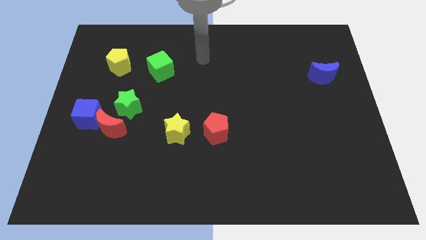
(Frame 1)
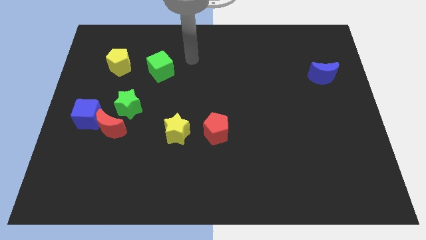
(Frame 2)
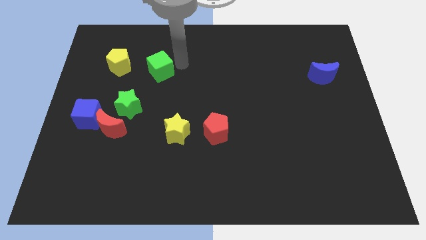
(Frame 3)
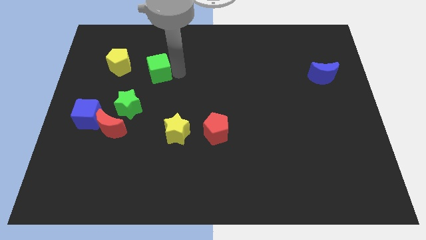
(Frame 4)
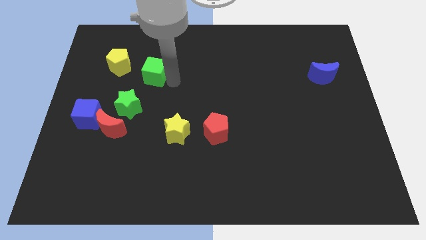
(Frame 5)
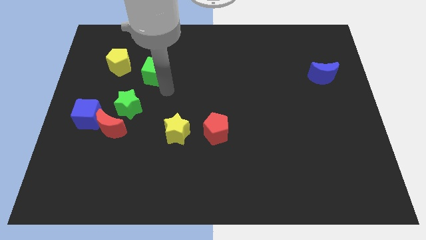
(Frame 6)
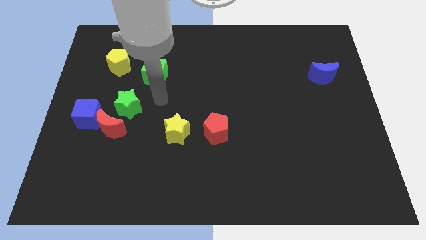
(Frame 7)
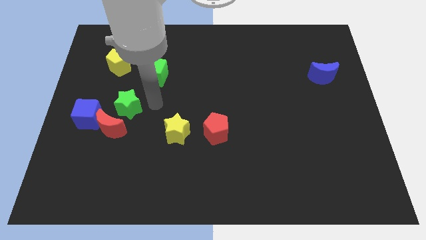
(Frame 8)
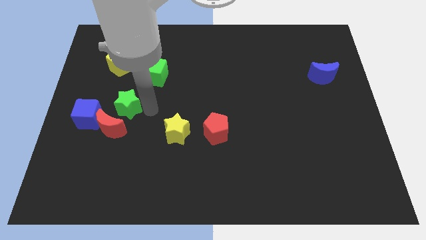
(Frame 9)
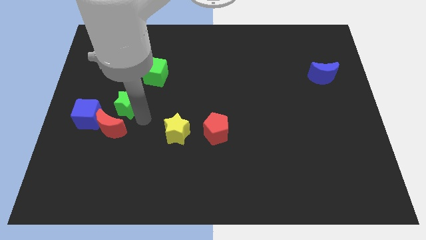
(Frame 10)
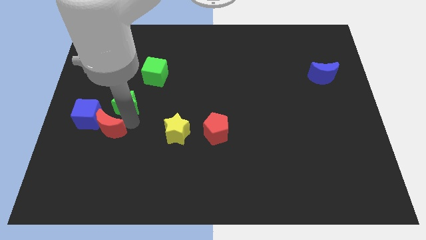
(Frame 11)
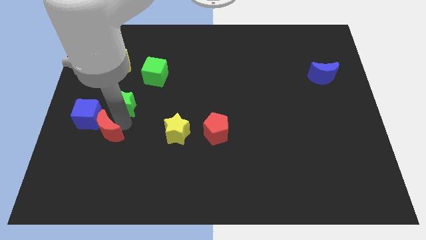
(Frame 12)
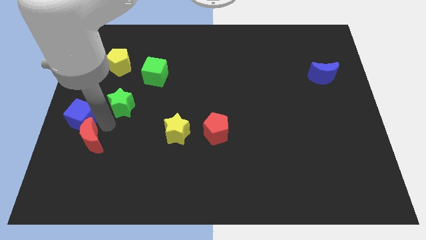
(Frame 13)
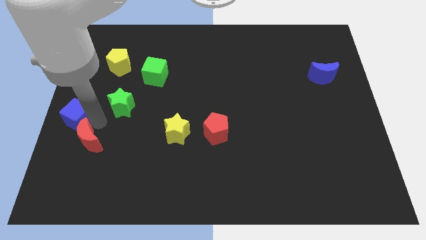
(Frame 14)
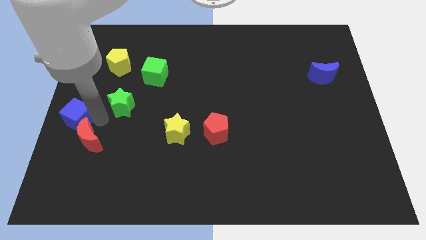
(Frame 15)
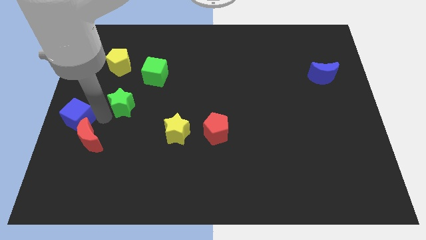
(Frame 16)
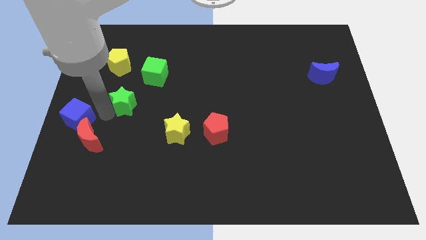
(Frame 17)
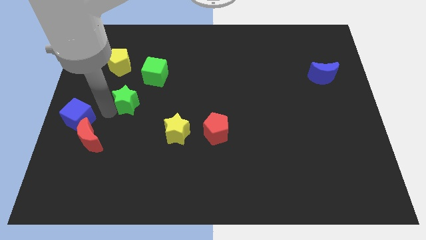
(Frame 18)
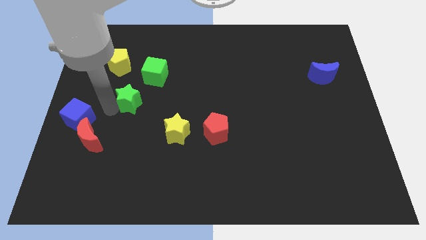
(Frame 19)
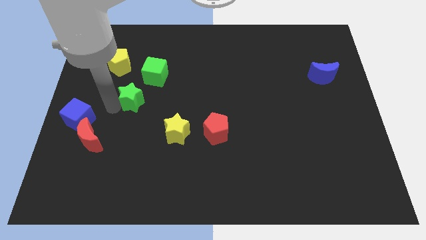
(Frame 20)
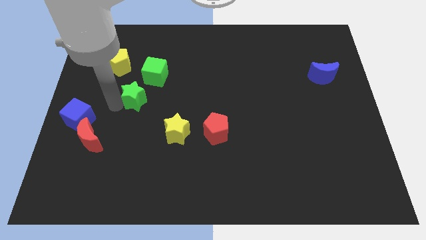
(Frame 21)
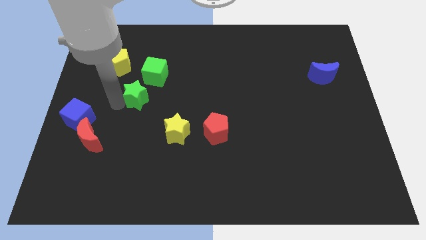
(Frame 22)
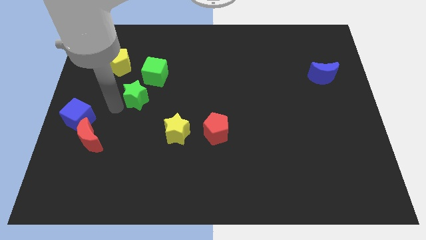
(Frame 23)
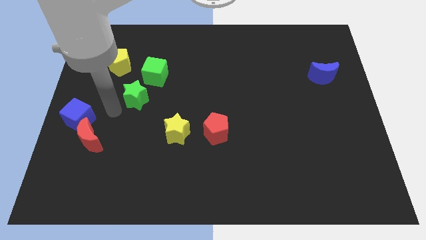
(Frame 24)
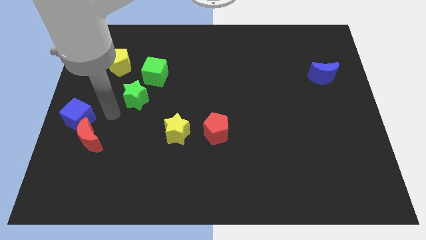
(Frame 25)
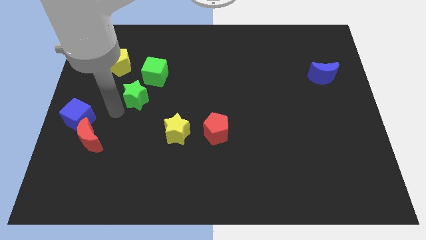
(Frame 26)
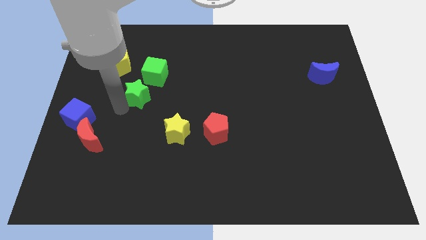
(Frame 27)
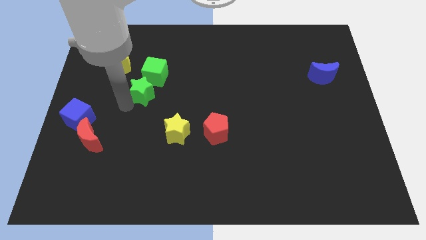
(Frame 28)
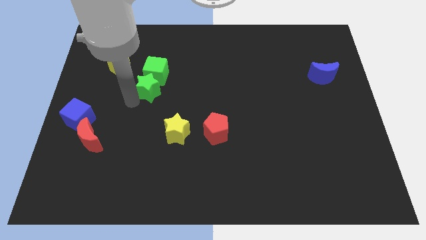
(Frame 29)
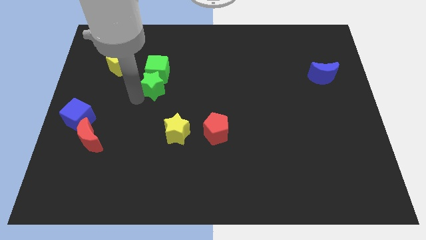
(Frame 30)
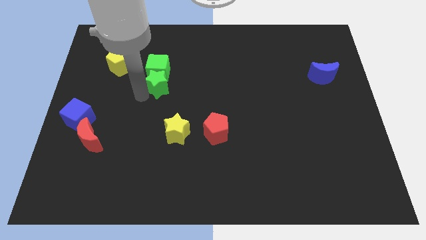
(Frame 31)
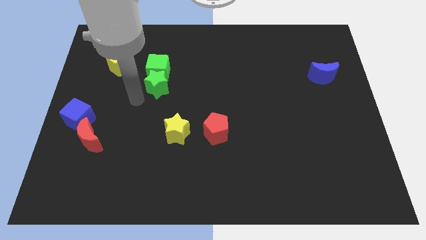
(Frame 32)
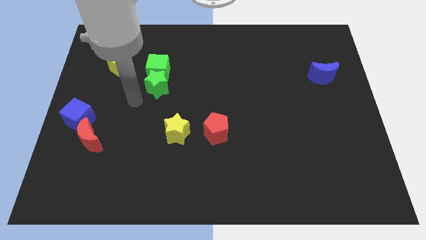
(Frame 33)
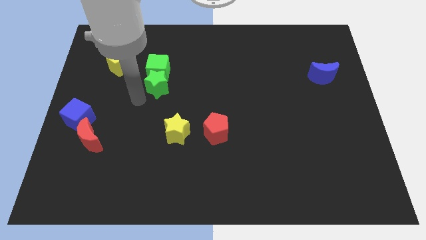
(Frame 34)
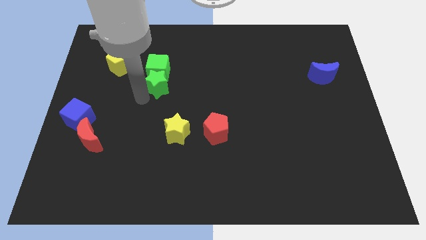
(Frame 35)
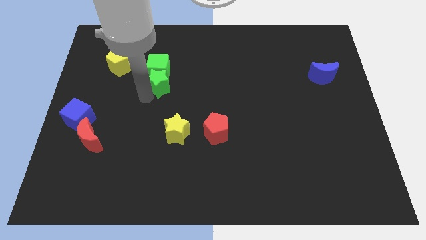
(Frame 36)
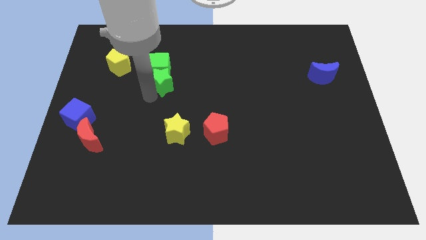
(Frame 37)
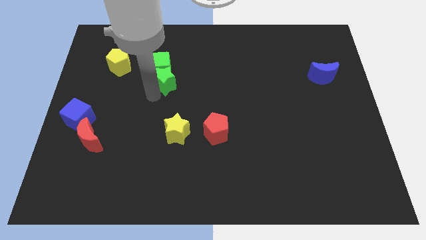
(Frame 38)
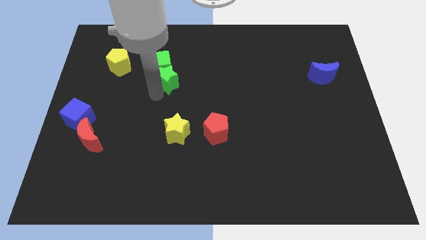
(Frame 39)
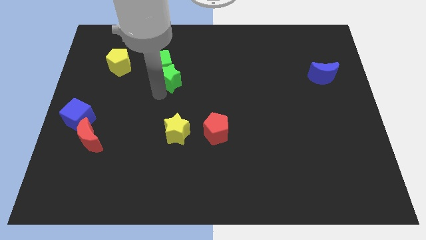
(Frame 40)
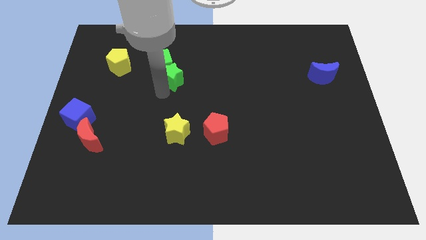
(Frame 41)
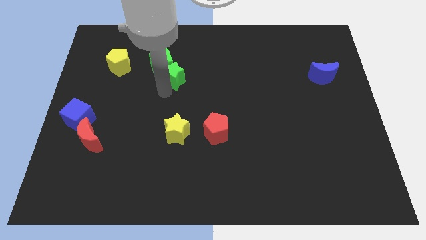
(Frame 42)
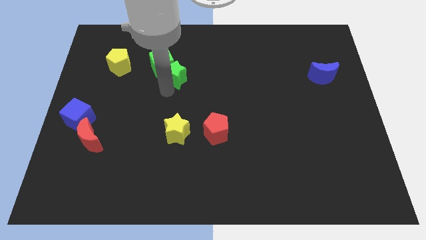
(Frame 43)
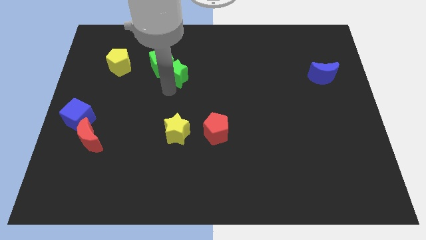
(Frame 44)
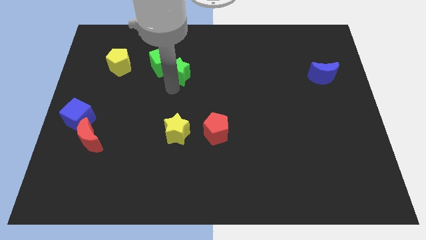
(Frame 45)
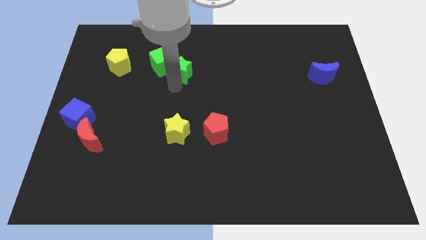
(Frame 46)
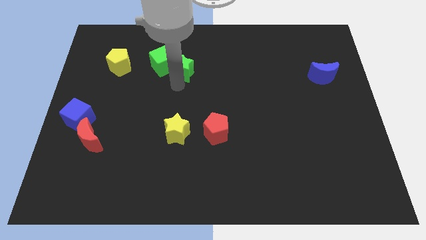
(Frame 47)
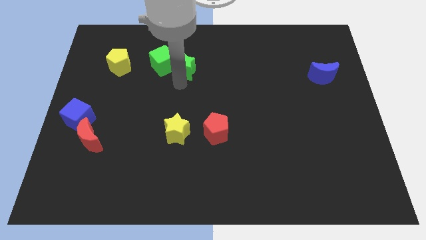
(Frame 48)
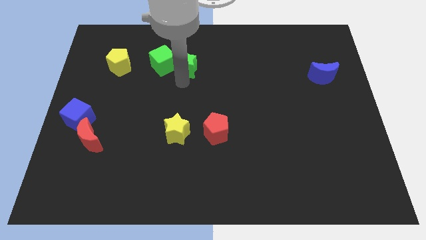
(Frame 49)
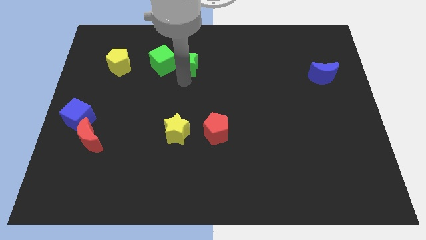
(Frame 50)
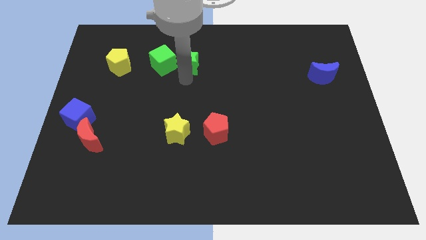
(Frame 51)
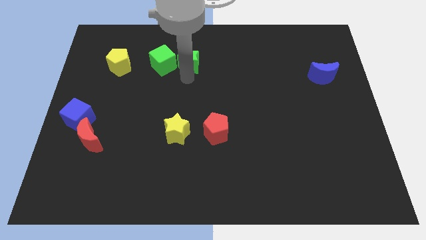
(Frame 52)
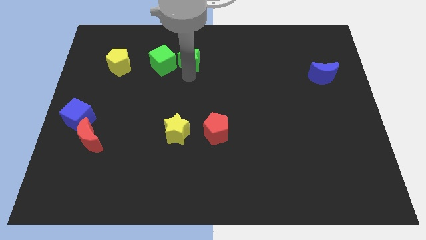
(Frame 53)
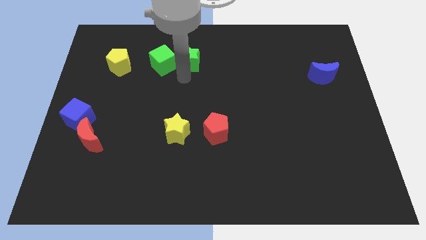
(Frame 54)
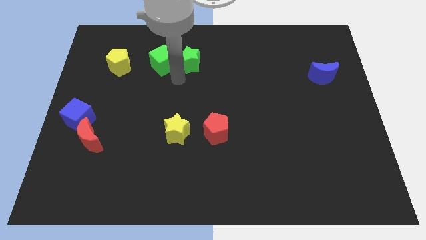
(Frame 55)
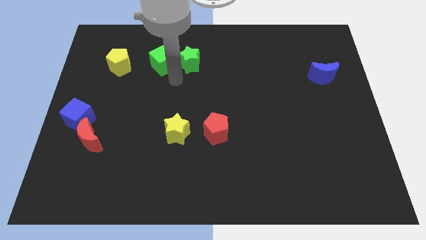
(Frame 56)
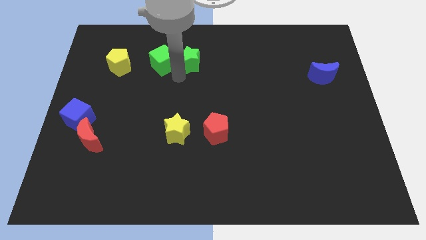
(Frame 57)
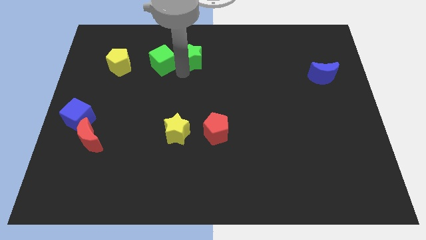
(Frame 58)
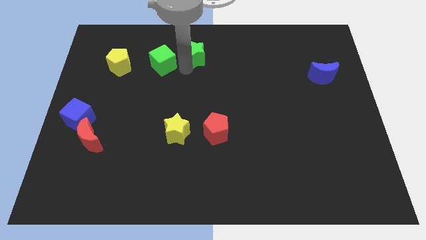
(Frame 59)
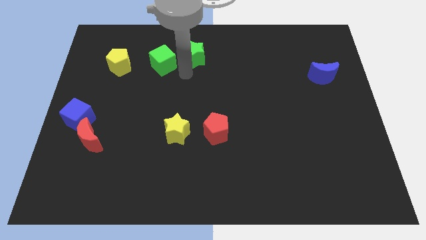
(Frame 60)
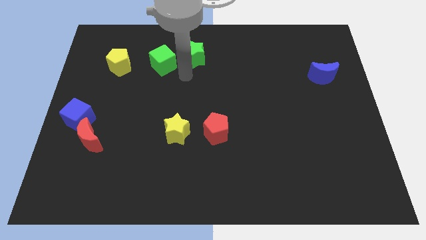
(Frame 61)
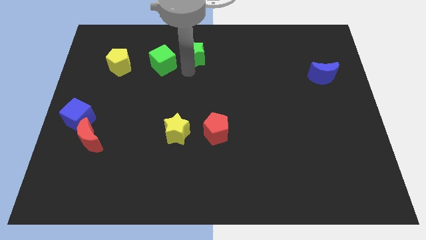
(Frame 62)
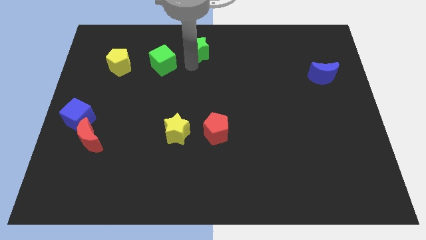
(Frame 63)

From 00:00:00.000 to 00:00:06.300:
slide the green star to the towards your base
